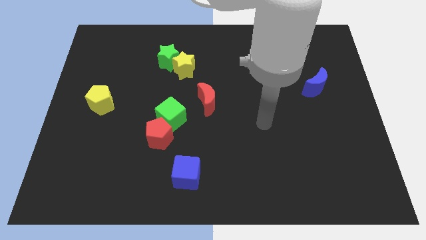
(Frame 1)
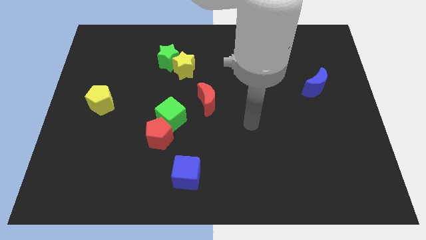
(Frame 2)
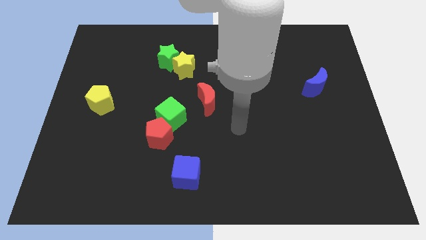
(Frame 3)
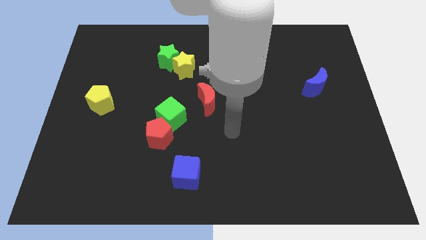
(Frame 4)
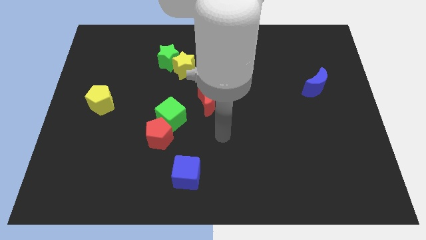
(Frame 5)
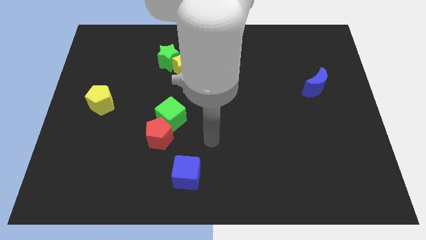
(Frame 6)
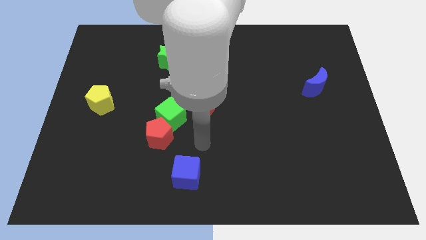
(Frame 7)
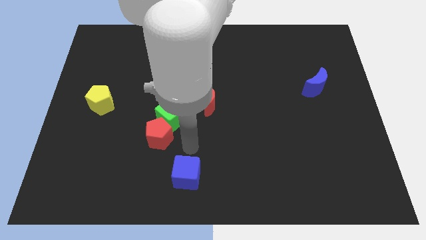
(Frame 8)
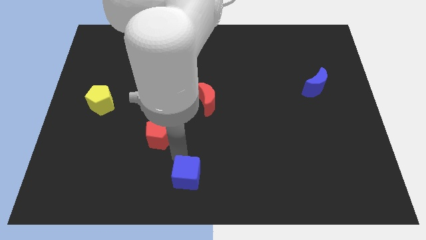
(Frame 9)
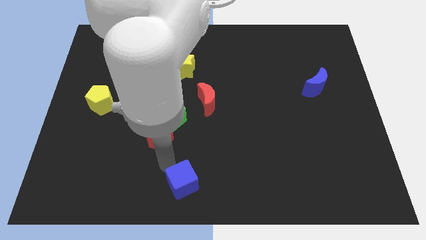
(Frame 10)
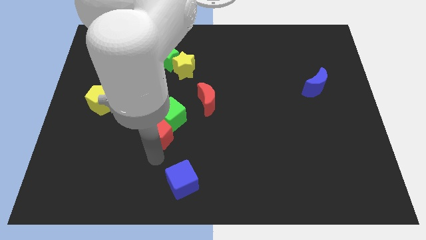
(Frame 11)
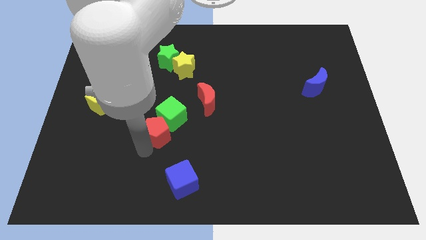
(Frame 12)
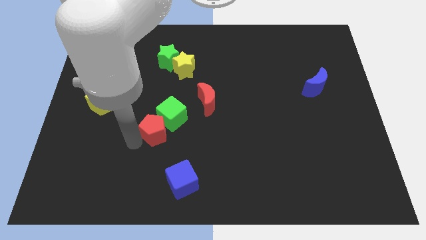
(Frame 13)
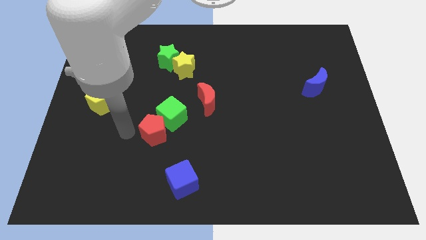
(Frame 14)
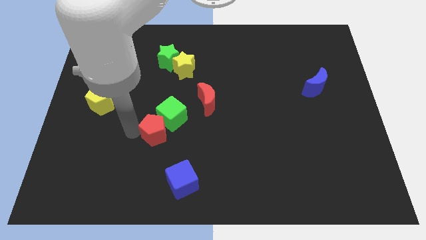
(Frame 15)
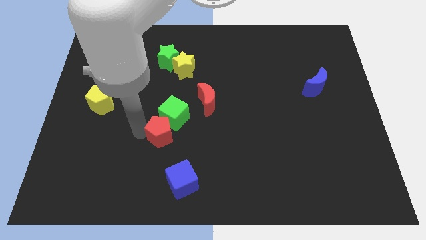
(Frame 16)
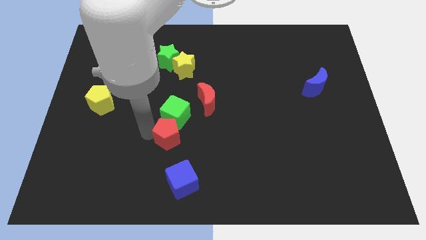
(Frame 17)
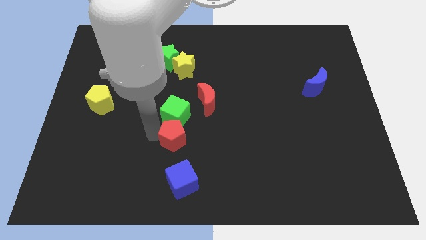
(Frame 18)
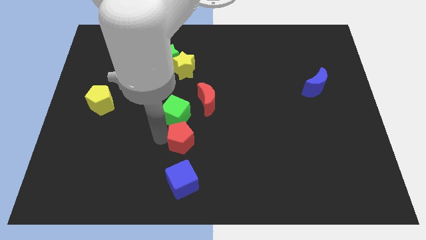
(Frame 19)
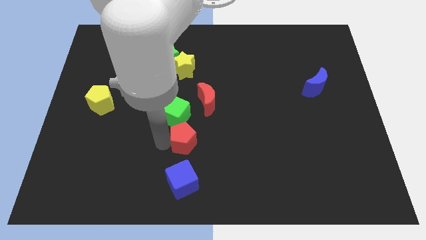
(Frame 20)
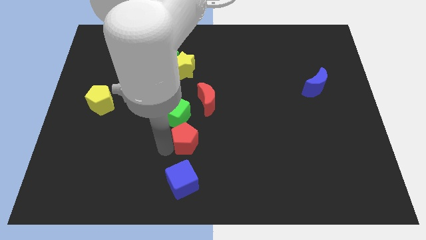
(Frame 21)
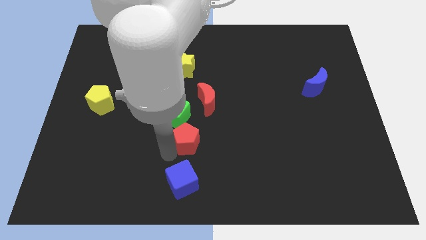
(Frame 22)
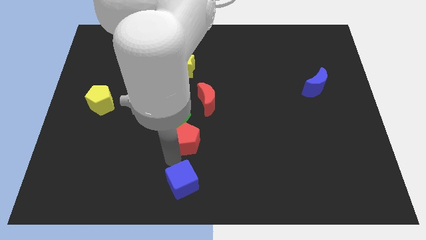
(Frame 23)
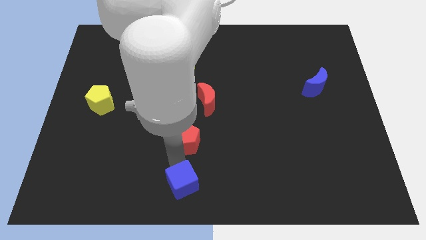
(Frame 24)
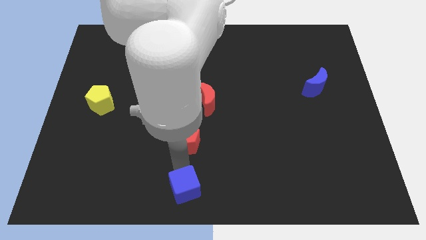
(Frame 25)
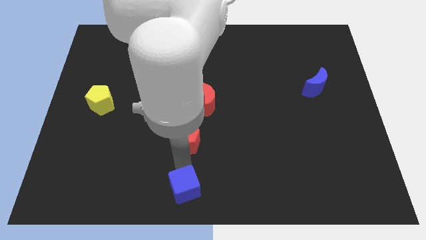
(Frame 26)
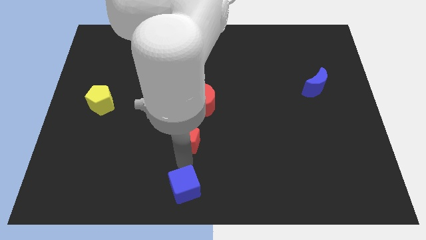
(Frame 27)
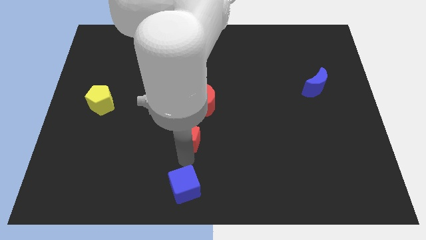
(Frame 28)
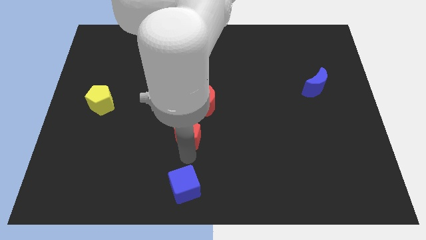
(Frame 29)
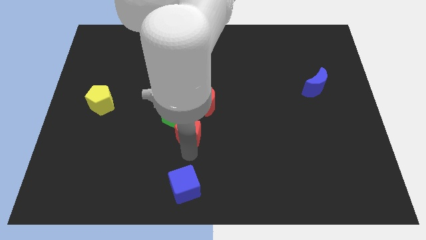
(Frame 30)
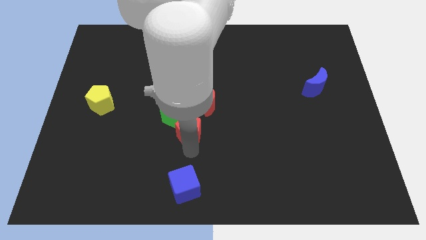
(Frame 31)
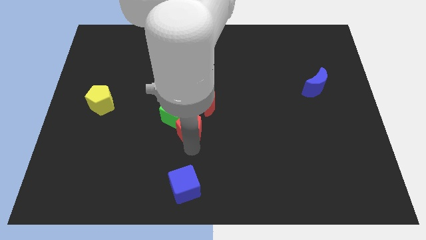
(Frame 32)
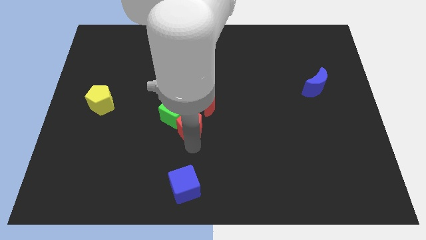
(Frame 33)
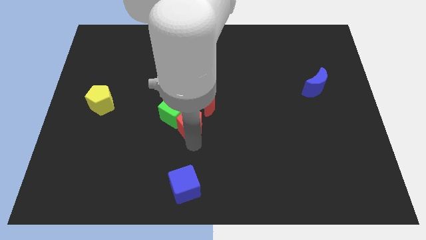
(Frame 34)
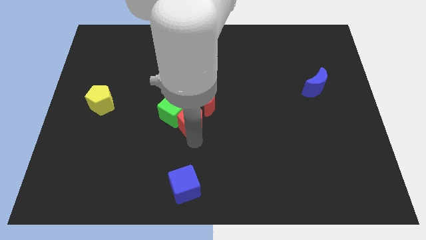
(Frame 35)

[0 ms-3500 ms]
push the red pentagon somewhat upwards and to the right diagonally

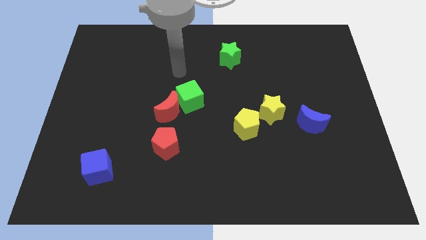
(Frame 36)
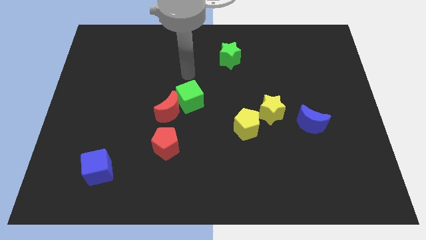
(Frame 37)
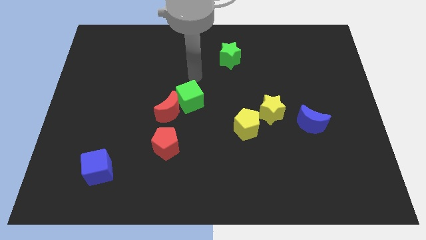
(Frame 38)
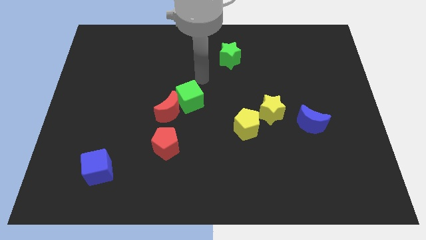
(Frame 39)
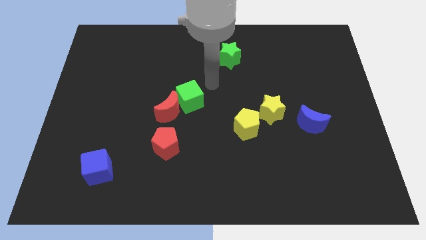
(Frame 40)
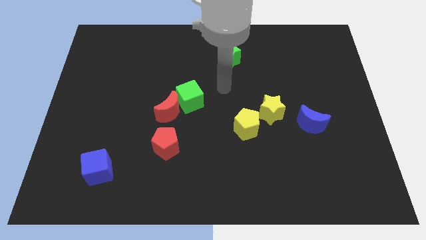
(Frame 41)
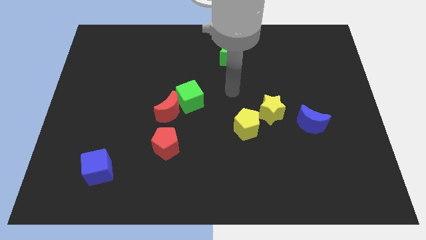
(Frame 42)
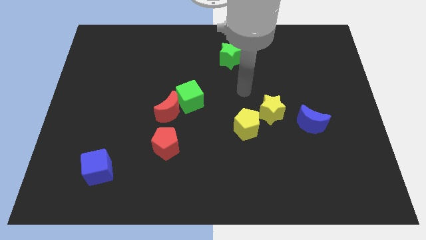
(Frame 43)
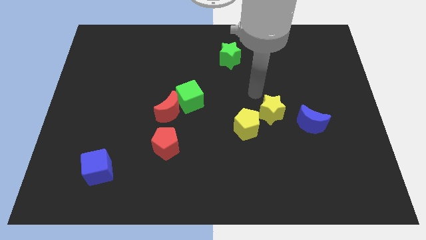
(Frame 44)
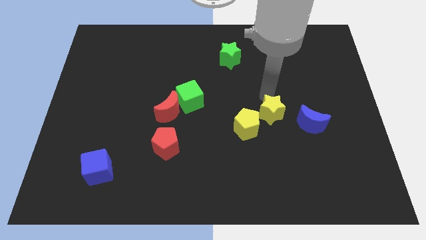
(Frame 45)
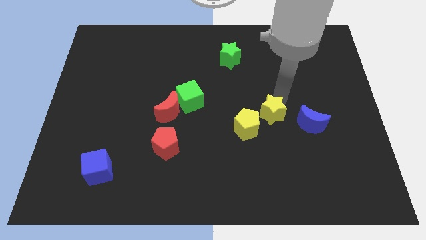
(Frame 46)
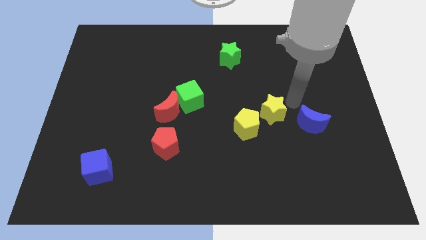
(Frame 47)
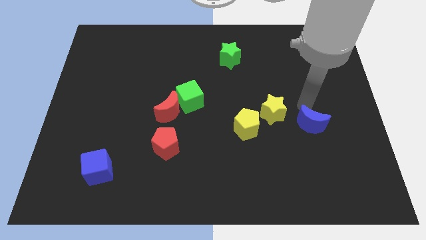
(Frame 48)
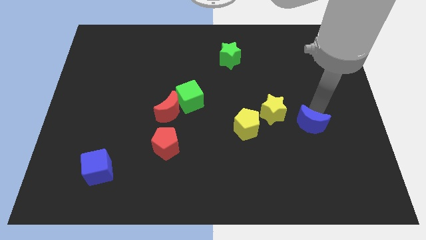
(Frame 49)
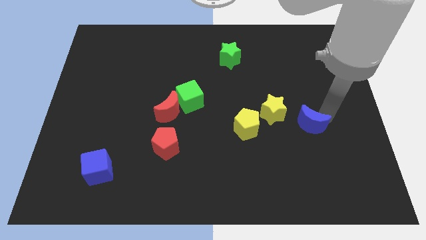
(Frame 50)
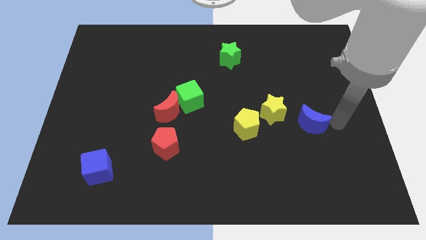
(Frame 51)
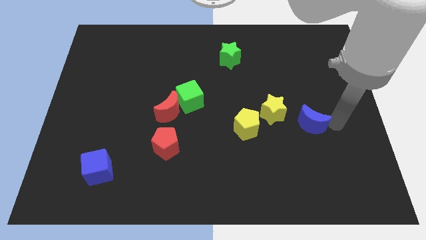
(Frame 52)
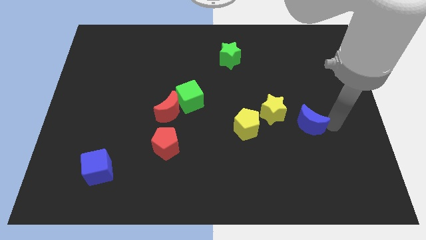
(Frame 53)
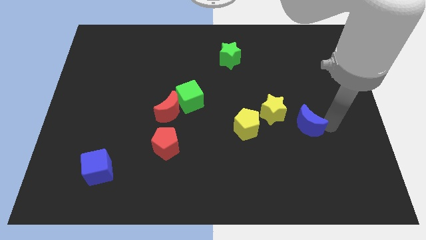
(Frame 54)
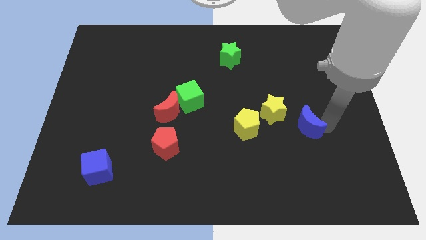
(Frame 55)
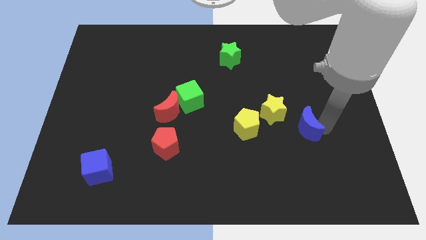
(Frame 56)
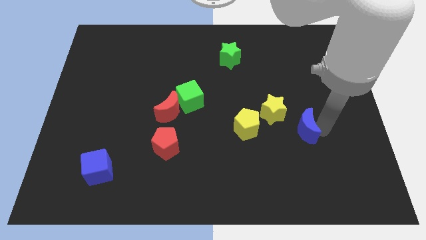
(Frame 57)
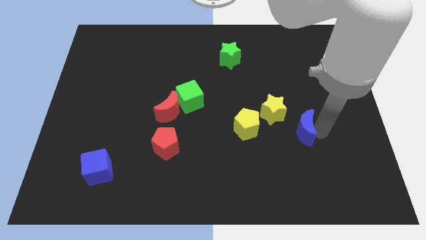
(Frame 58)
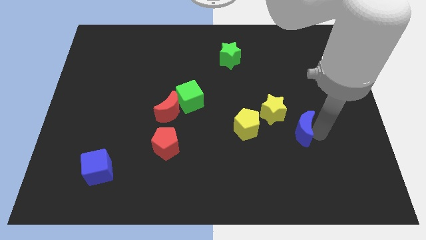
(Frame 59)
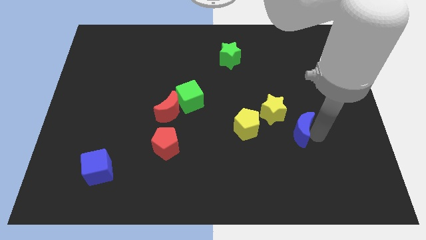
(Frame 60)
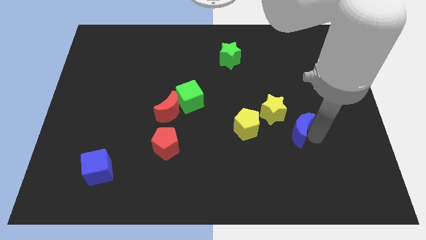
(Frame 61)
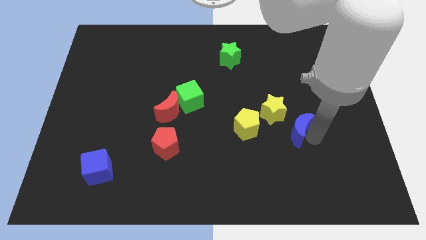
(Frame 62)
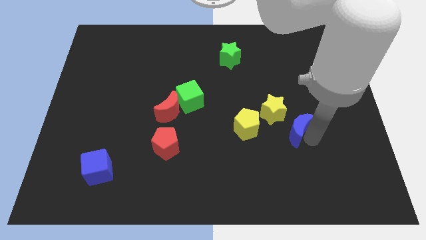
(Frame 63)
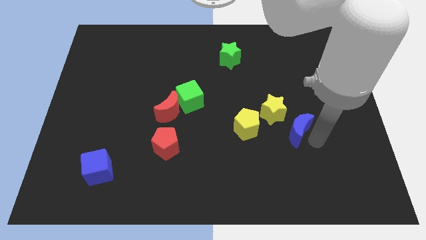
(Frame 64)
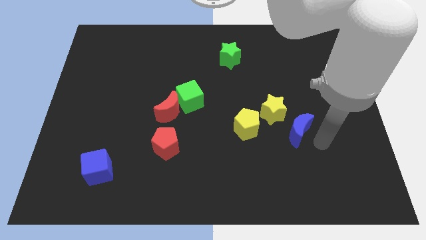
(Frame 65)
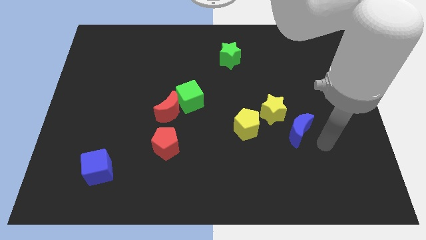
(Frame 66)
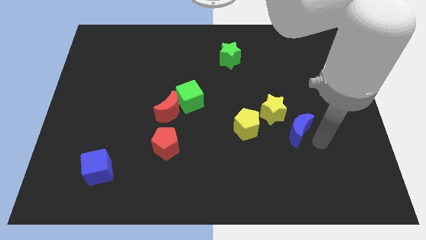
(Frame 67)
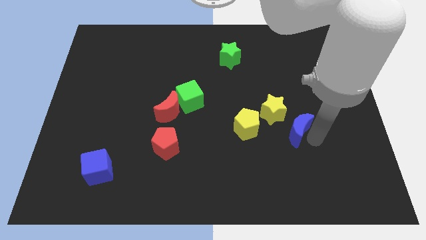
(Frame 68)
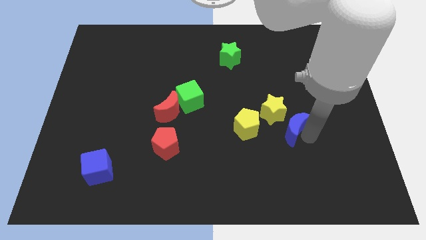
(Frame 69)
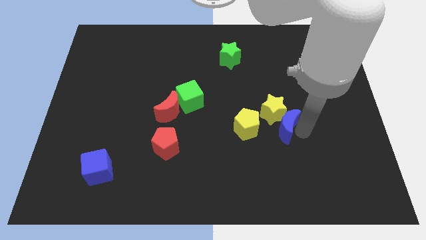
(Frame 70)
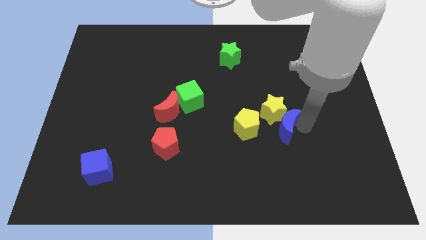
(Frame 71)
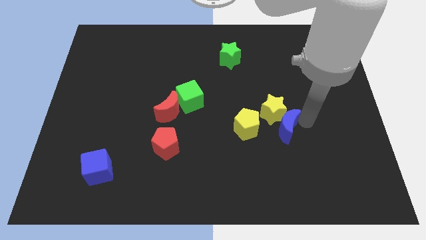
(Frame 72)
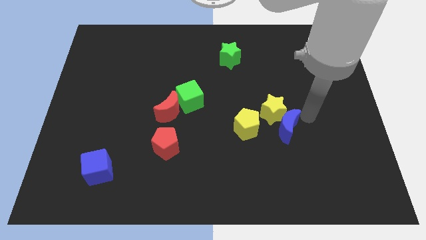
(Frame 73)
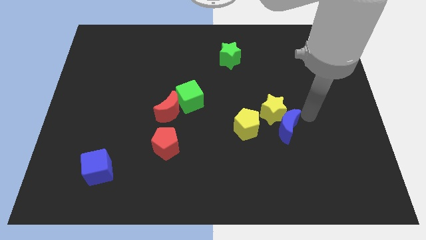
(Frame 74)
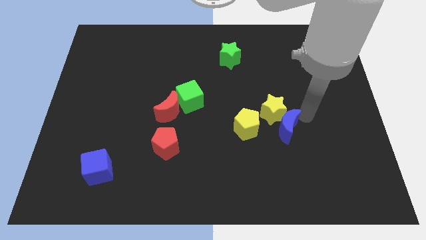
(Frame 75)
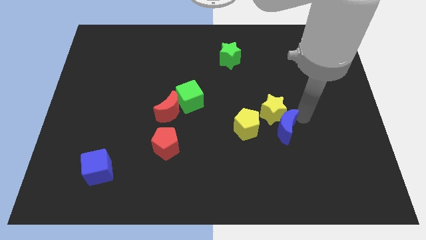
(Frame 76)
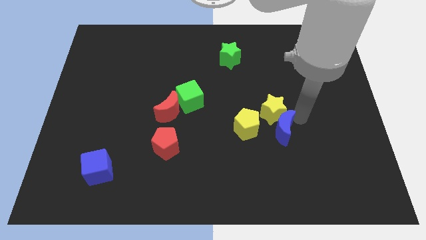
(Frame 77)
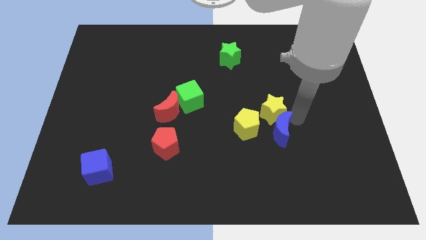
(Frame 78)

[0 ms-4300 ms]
push the blue moon to the left slightly

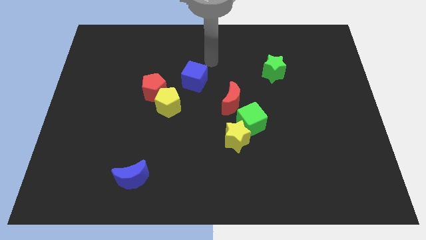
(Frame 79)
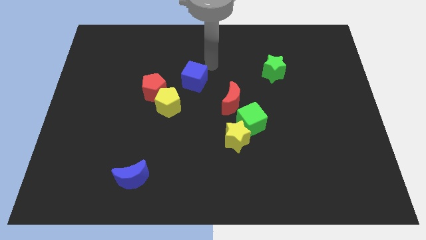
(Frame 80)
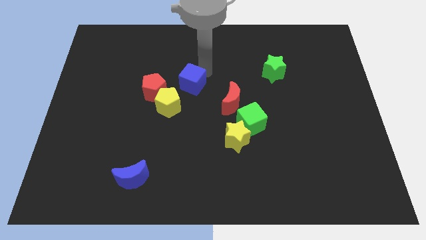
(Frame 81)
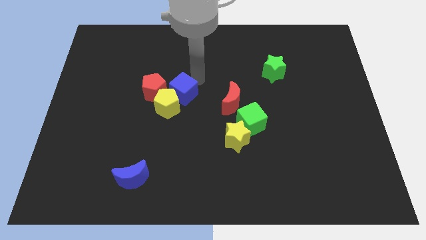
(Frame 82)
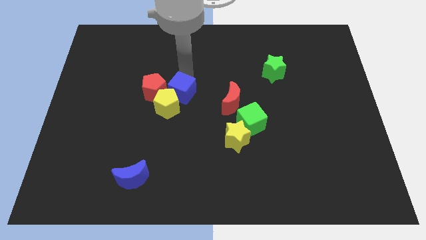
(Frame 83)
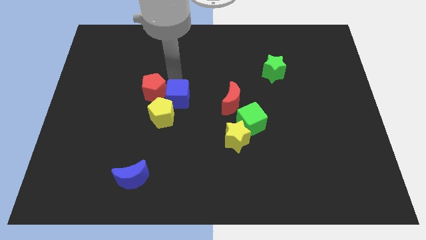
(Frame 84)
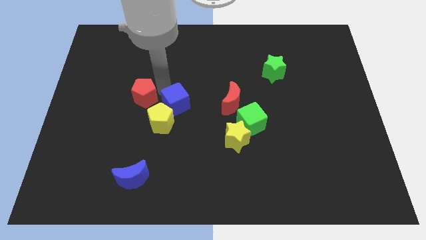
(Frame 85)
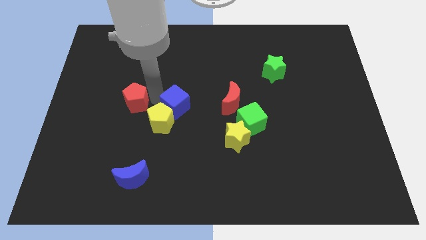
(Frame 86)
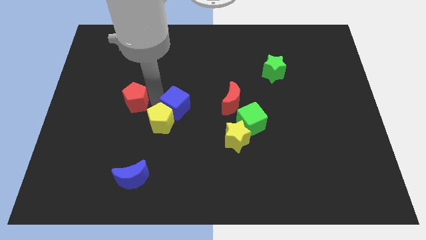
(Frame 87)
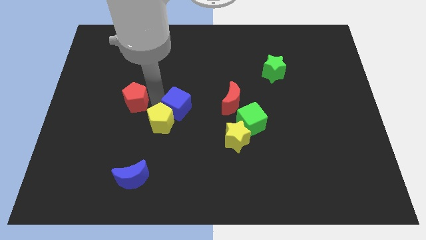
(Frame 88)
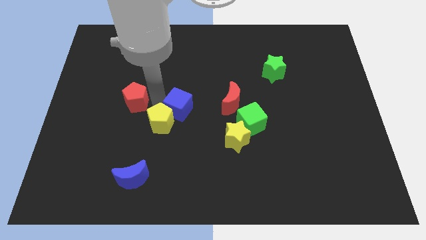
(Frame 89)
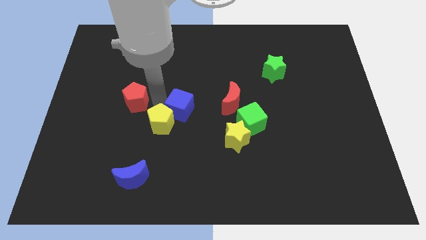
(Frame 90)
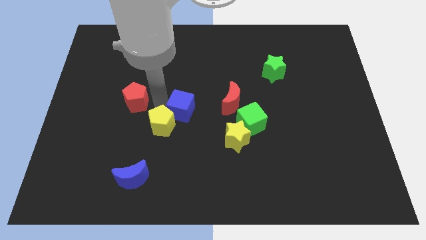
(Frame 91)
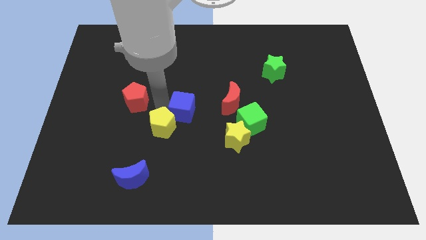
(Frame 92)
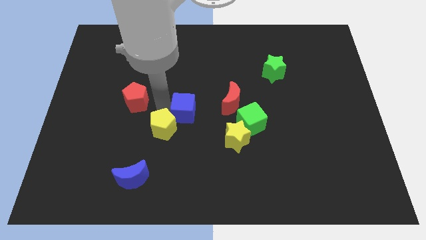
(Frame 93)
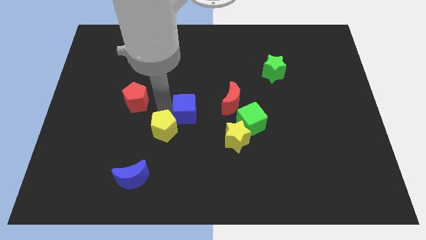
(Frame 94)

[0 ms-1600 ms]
slide the yellow pentagon somewhat down
